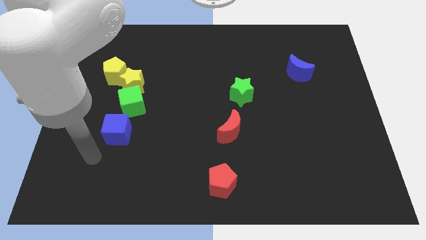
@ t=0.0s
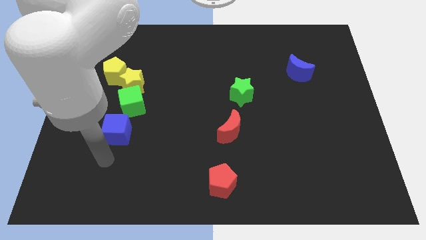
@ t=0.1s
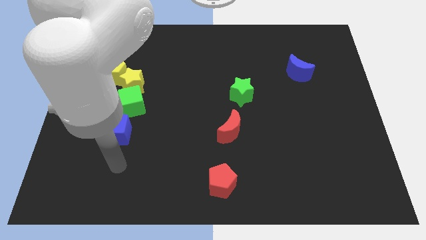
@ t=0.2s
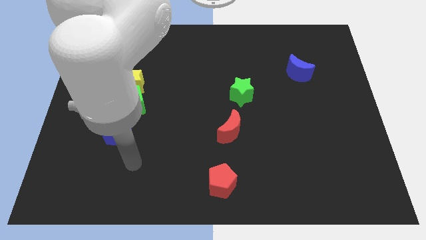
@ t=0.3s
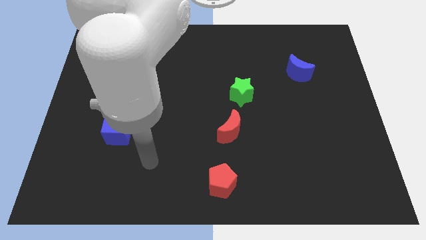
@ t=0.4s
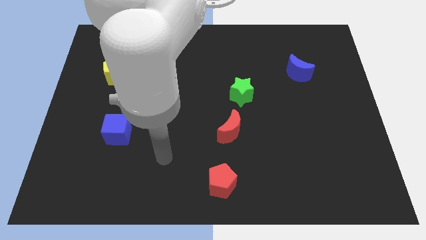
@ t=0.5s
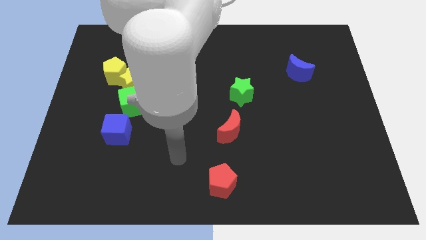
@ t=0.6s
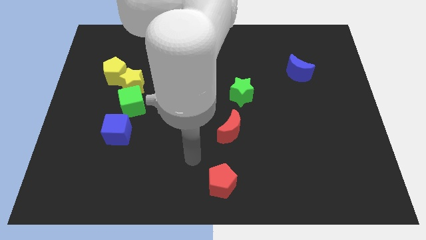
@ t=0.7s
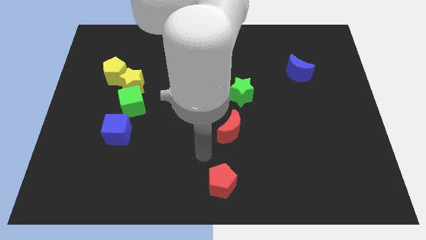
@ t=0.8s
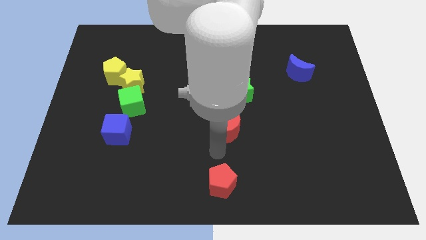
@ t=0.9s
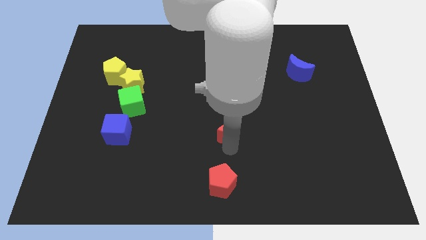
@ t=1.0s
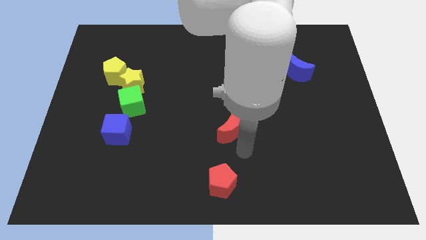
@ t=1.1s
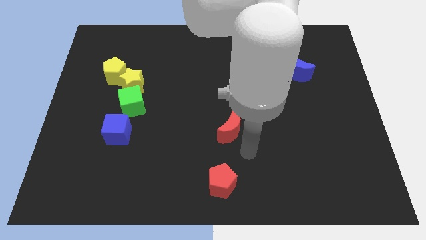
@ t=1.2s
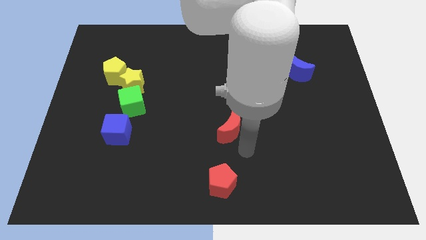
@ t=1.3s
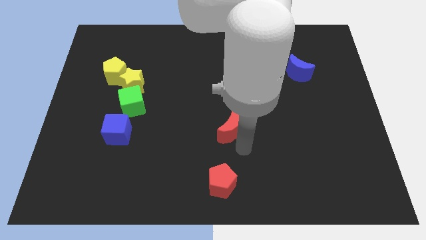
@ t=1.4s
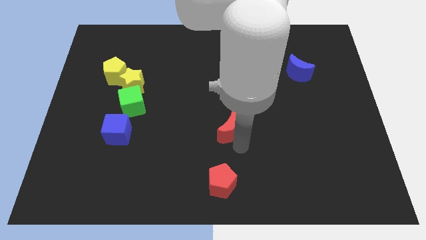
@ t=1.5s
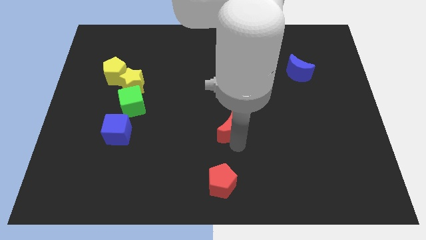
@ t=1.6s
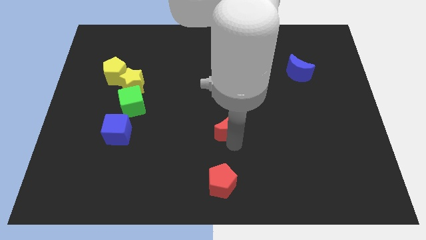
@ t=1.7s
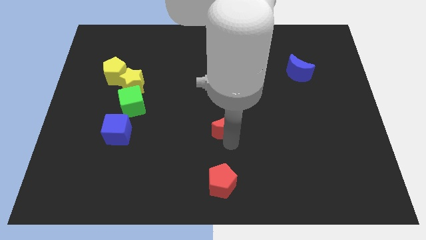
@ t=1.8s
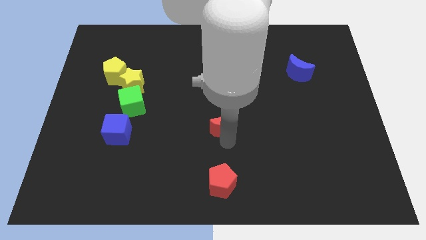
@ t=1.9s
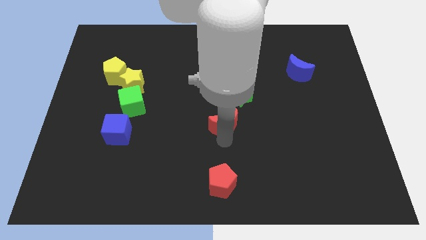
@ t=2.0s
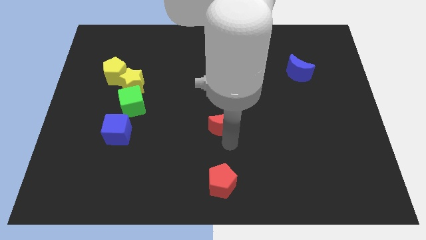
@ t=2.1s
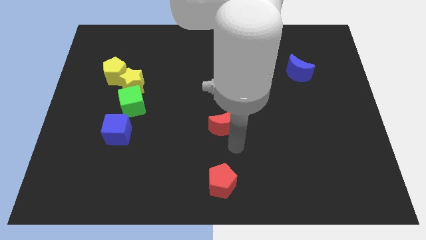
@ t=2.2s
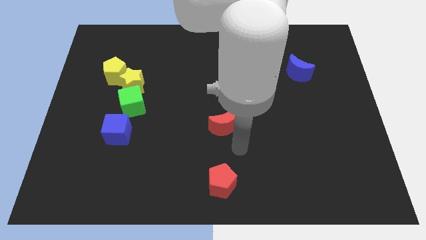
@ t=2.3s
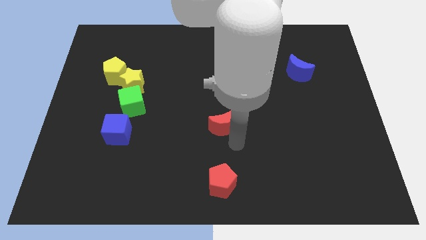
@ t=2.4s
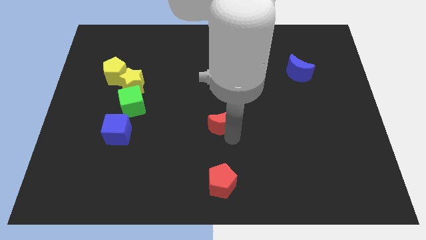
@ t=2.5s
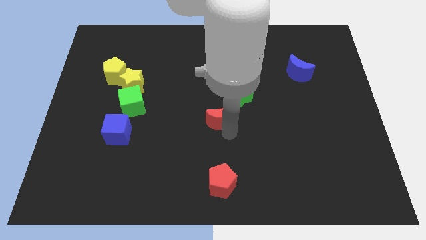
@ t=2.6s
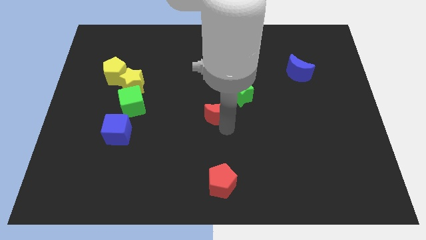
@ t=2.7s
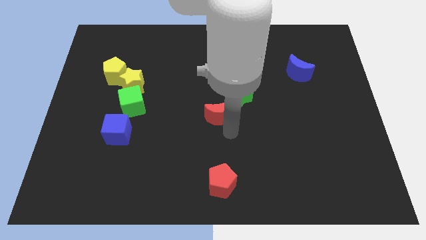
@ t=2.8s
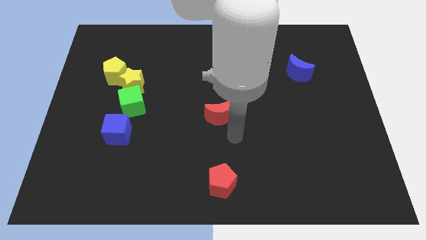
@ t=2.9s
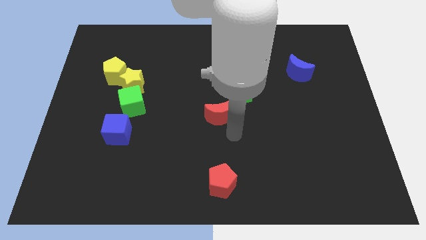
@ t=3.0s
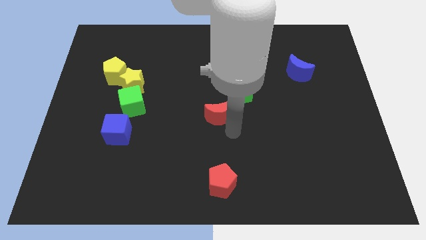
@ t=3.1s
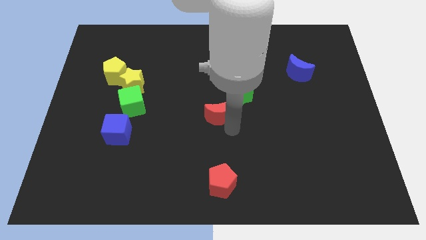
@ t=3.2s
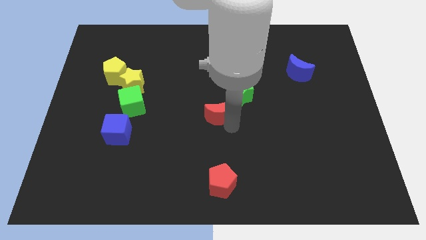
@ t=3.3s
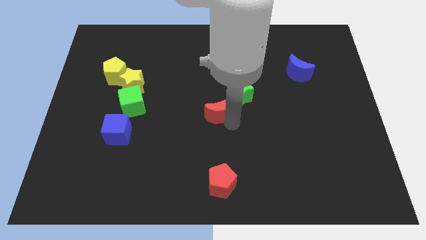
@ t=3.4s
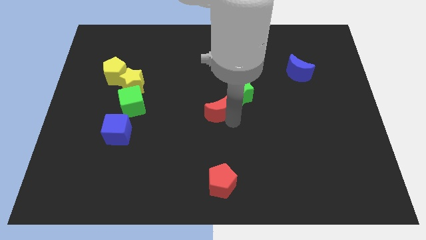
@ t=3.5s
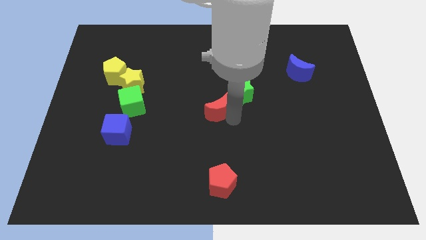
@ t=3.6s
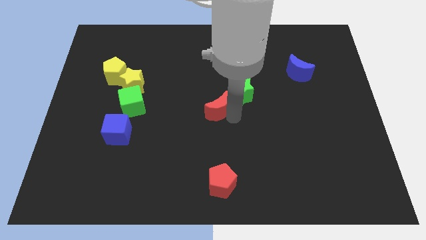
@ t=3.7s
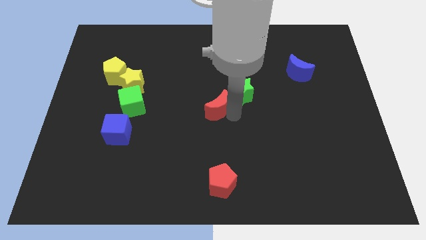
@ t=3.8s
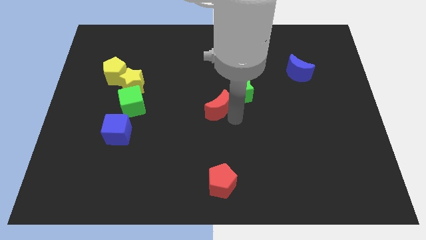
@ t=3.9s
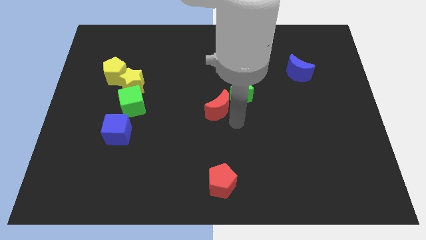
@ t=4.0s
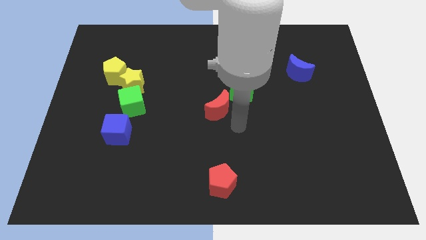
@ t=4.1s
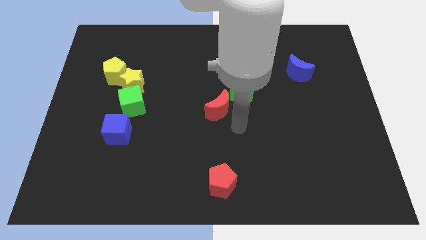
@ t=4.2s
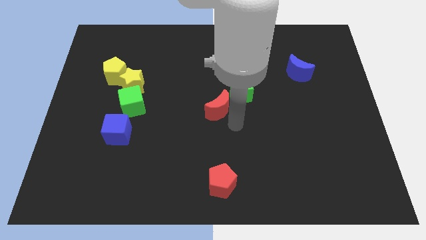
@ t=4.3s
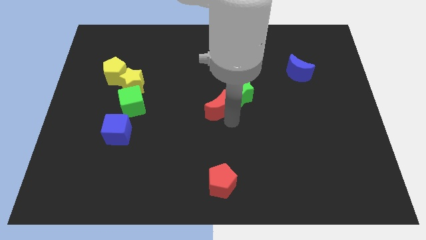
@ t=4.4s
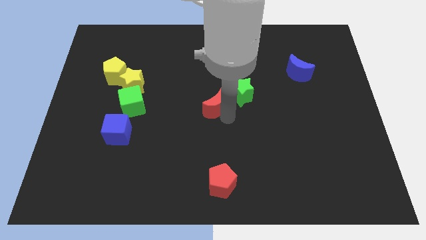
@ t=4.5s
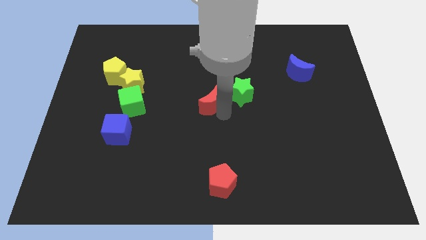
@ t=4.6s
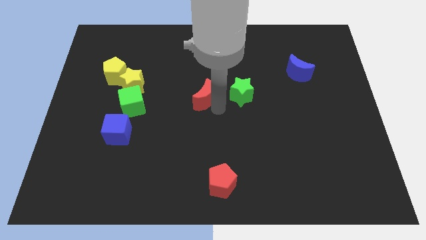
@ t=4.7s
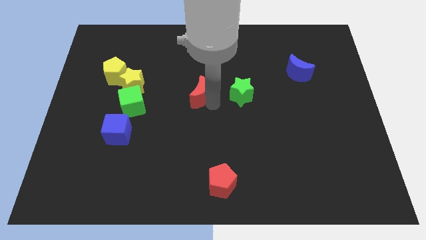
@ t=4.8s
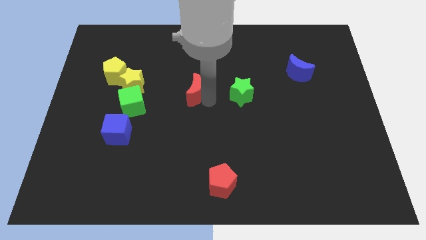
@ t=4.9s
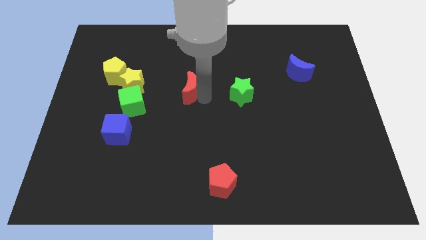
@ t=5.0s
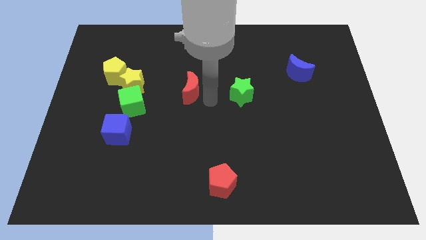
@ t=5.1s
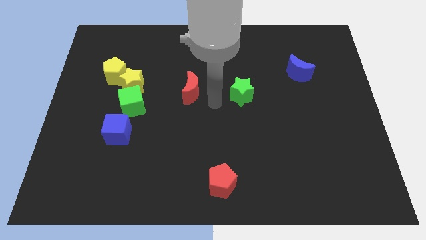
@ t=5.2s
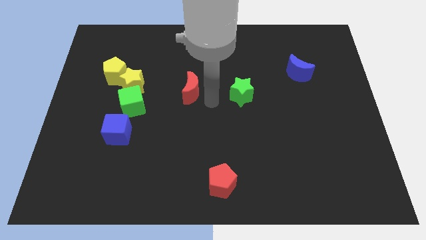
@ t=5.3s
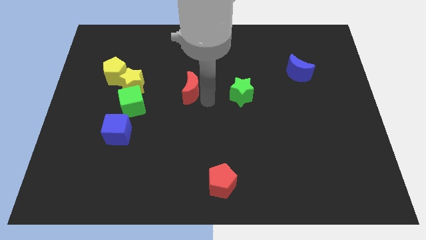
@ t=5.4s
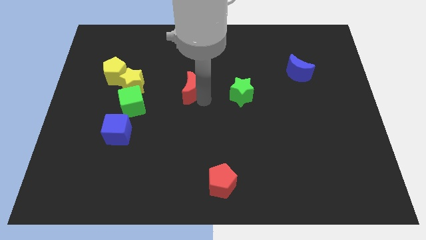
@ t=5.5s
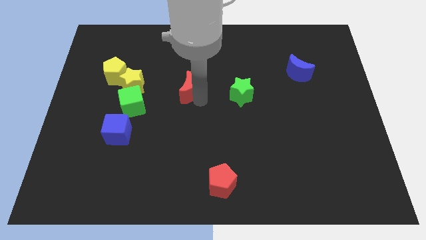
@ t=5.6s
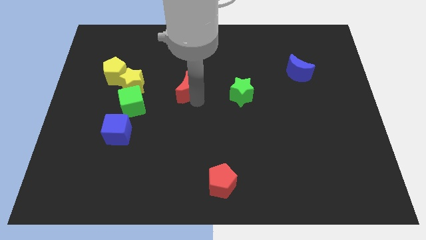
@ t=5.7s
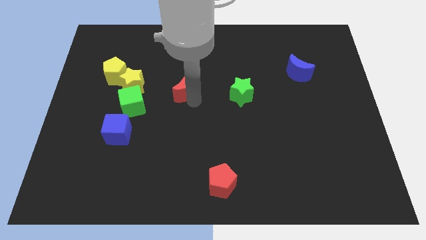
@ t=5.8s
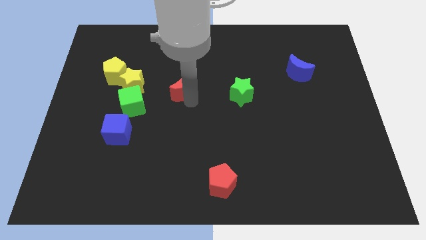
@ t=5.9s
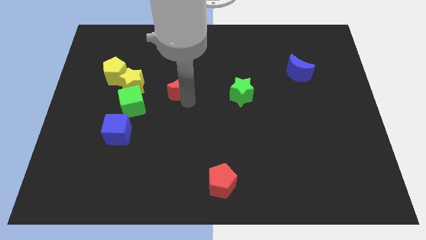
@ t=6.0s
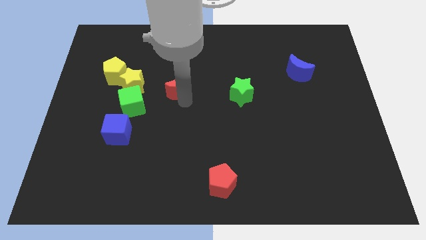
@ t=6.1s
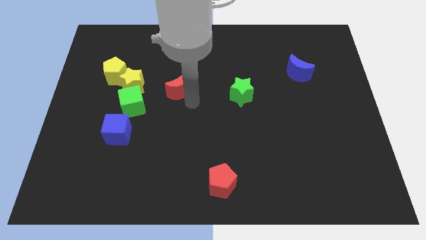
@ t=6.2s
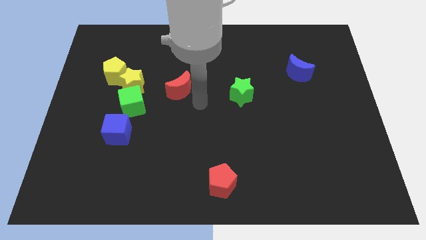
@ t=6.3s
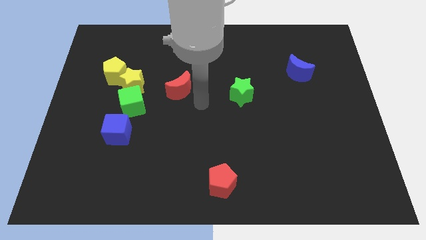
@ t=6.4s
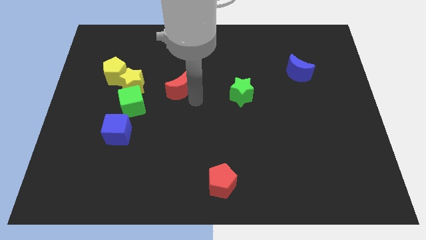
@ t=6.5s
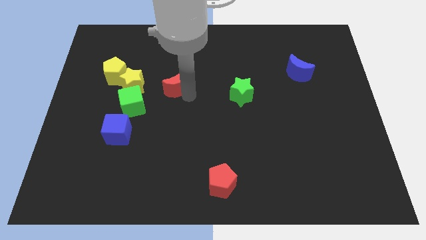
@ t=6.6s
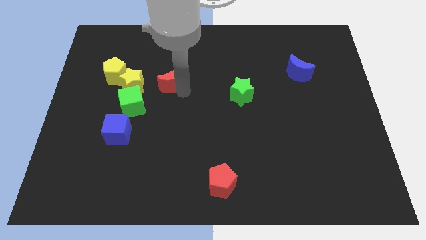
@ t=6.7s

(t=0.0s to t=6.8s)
push the red moon to the right side of the yellow pentagon

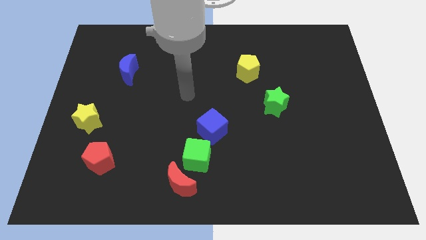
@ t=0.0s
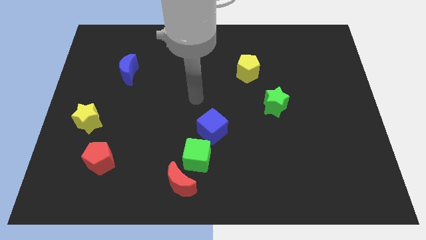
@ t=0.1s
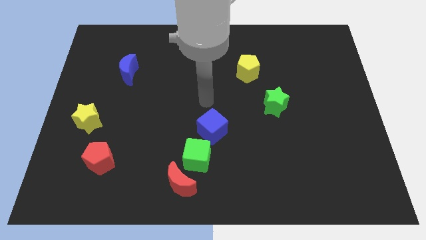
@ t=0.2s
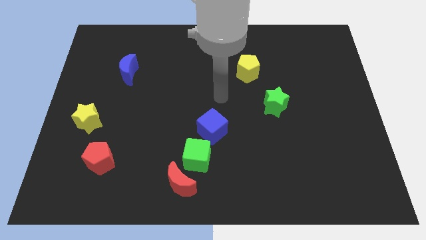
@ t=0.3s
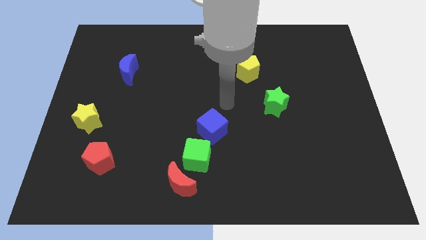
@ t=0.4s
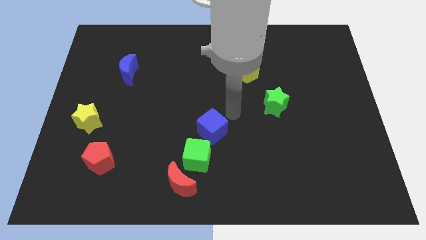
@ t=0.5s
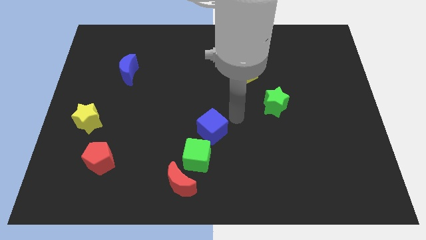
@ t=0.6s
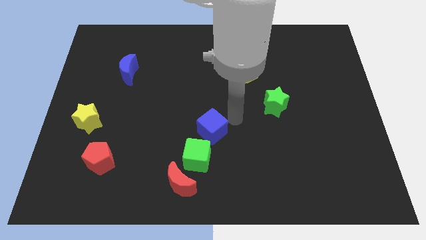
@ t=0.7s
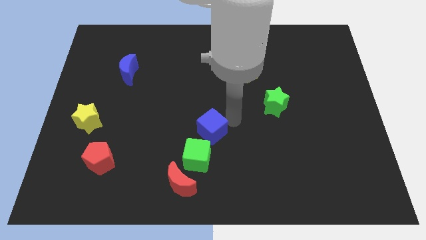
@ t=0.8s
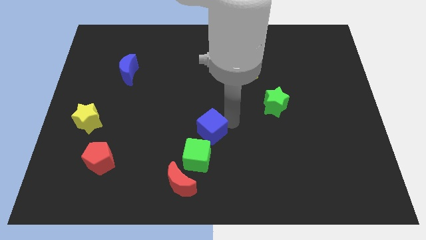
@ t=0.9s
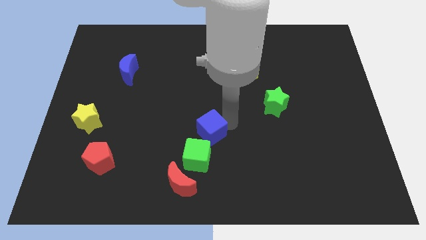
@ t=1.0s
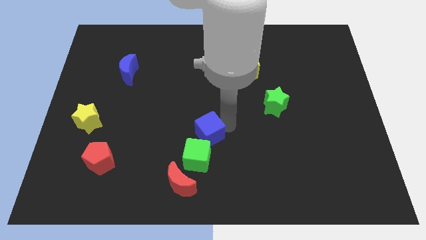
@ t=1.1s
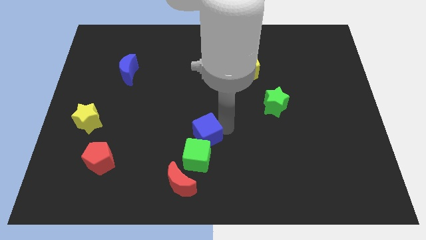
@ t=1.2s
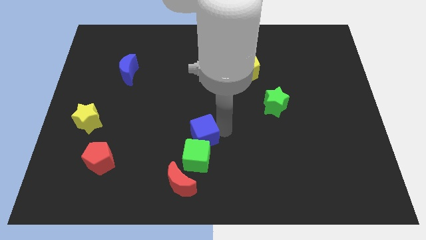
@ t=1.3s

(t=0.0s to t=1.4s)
put the blue cube to the top side of the red moon
